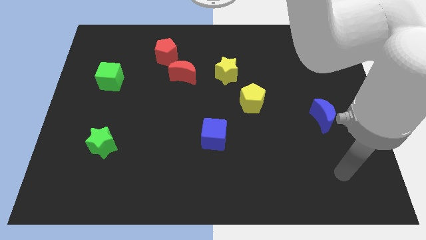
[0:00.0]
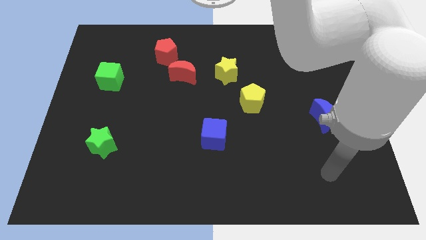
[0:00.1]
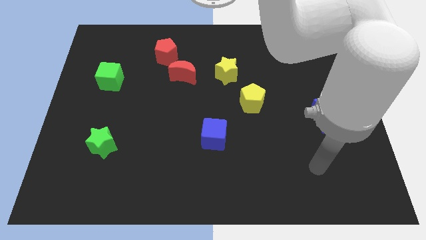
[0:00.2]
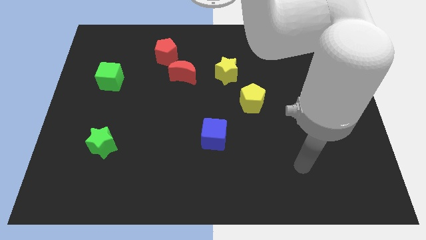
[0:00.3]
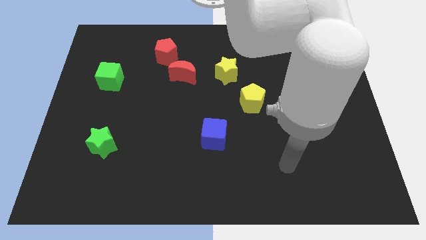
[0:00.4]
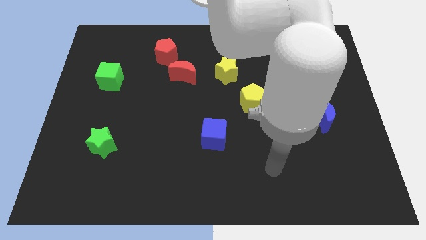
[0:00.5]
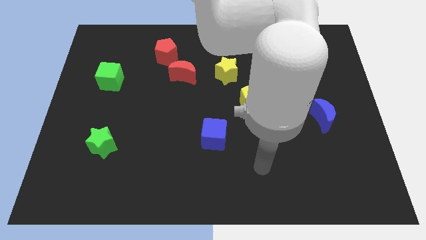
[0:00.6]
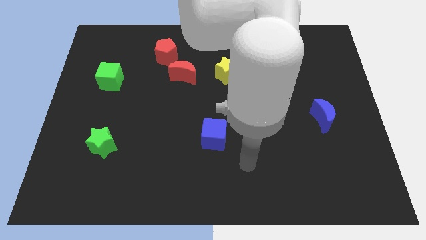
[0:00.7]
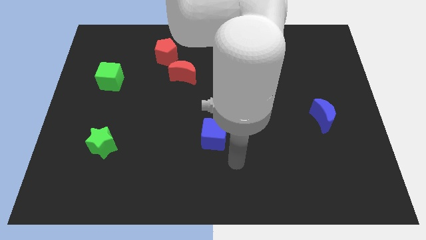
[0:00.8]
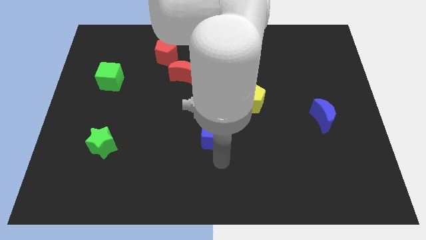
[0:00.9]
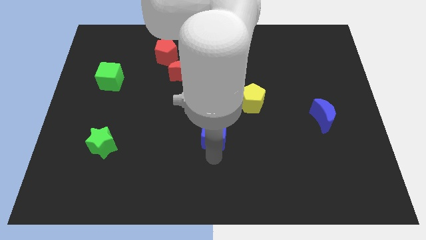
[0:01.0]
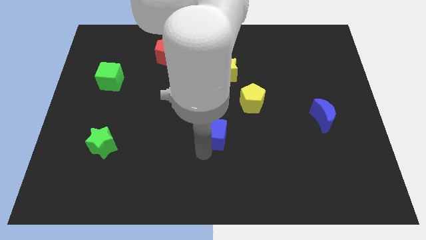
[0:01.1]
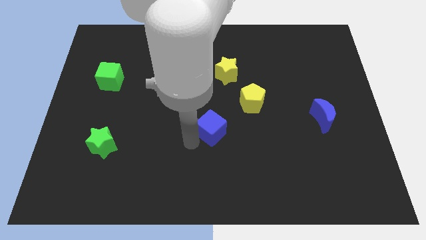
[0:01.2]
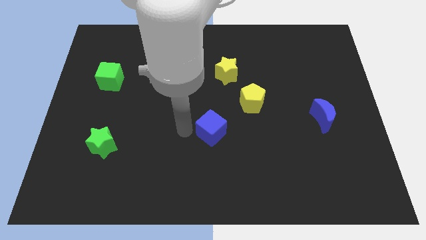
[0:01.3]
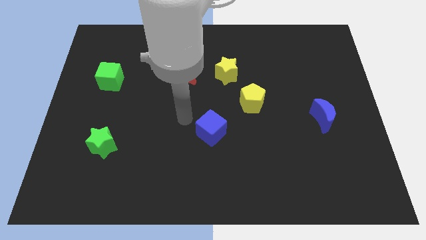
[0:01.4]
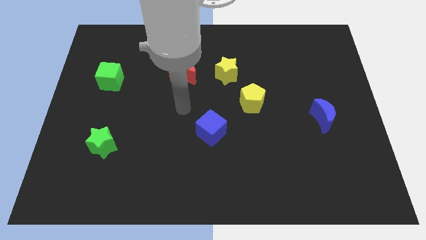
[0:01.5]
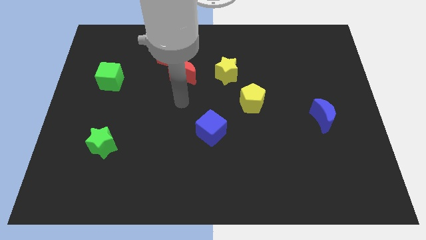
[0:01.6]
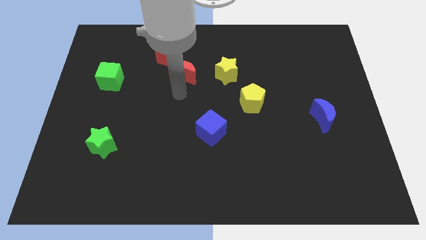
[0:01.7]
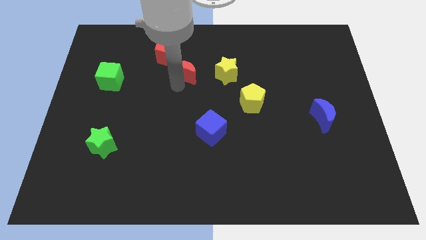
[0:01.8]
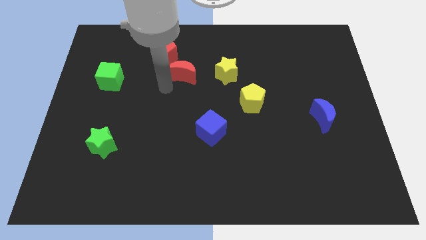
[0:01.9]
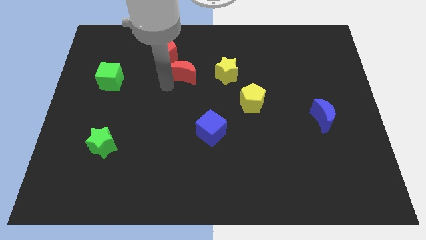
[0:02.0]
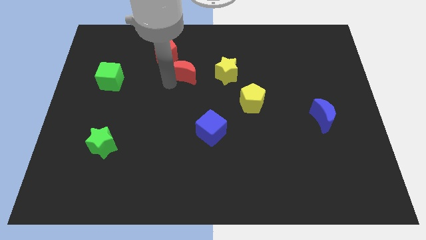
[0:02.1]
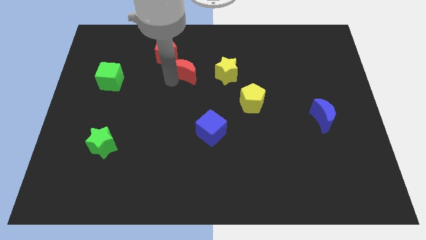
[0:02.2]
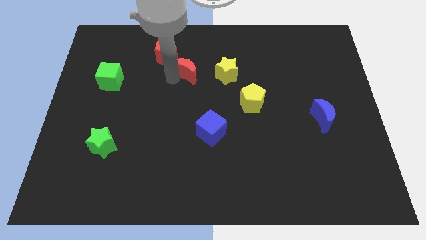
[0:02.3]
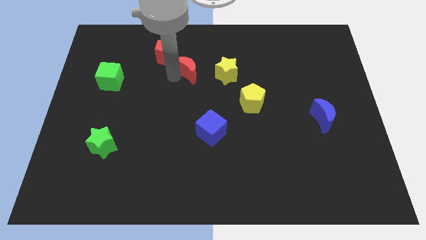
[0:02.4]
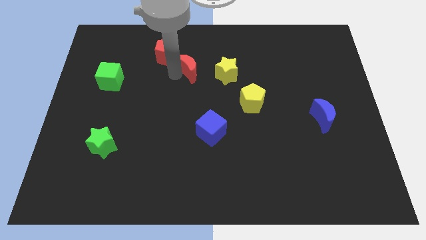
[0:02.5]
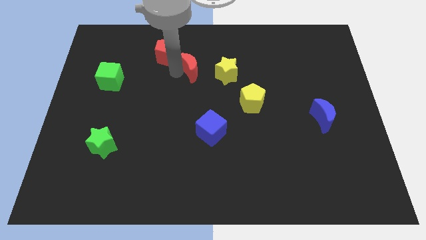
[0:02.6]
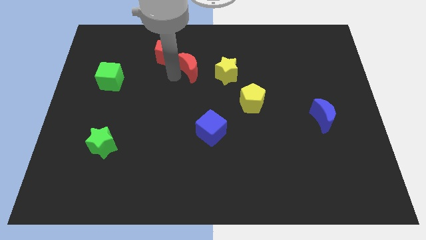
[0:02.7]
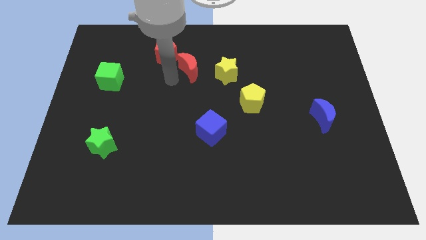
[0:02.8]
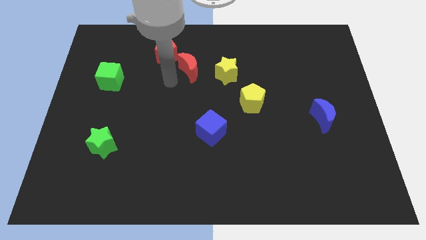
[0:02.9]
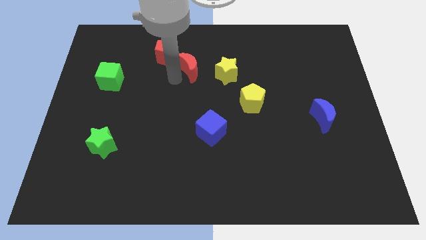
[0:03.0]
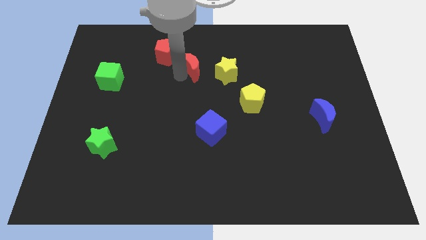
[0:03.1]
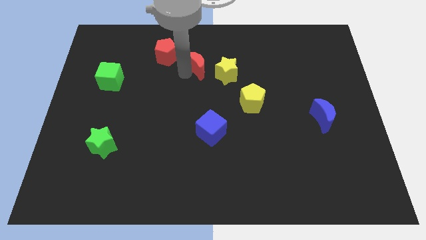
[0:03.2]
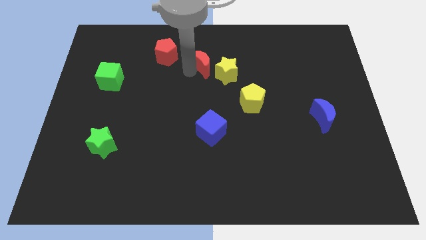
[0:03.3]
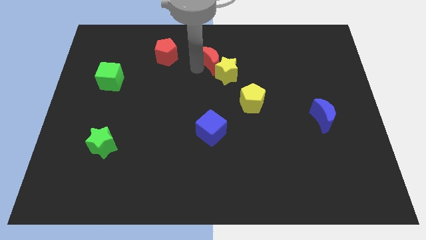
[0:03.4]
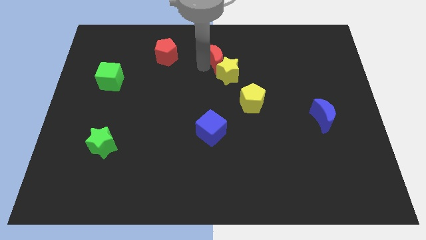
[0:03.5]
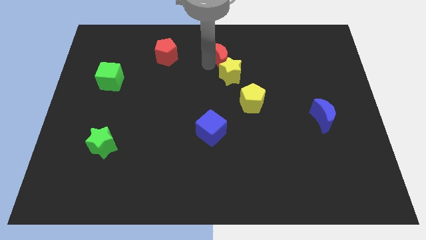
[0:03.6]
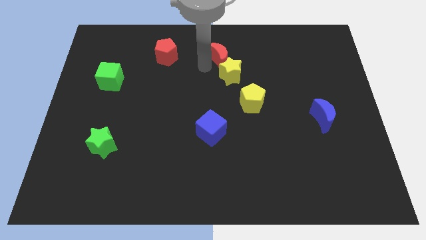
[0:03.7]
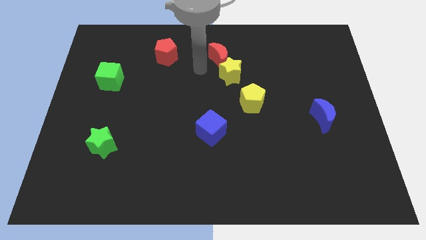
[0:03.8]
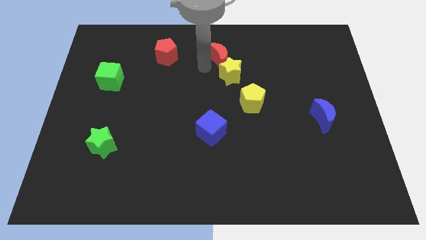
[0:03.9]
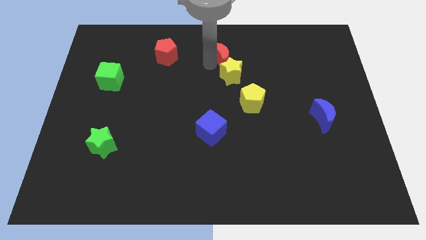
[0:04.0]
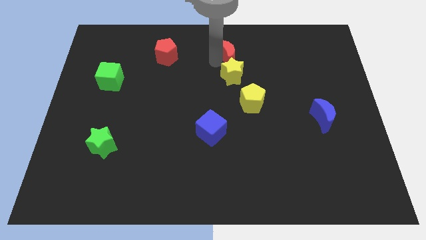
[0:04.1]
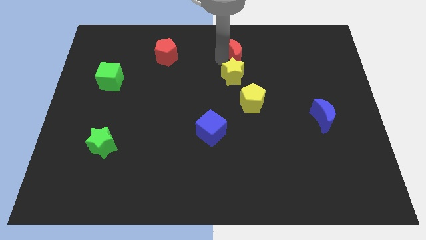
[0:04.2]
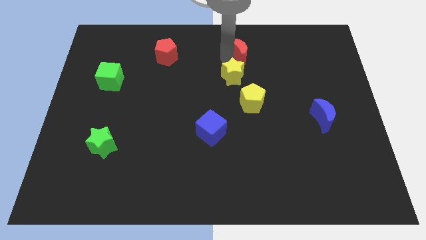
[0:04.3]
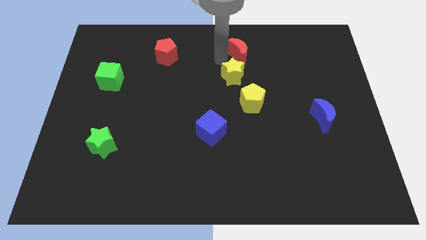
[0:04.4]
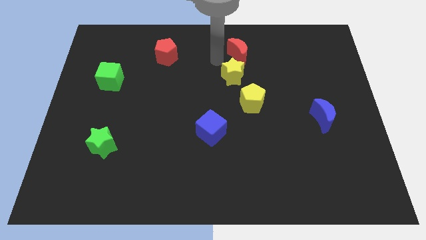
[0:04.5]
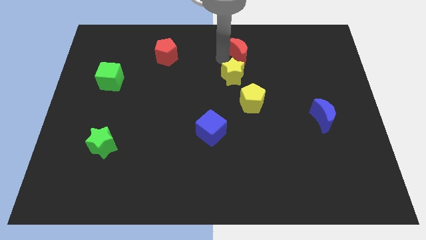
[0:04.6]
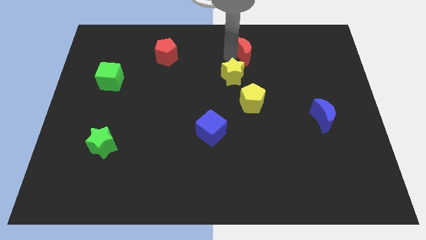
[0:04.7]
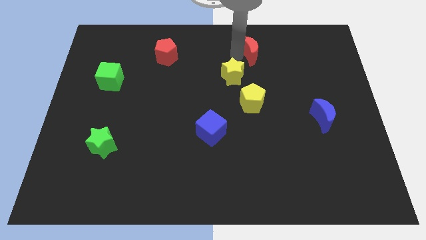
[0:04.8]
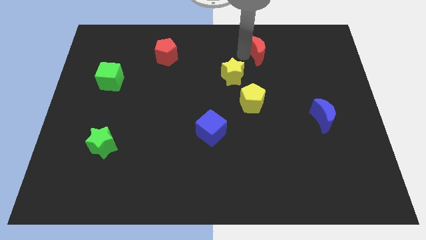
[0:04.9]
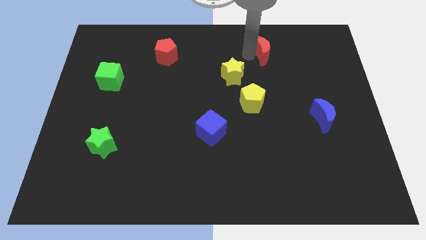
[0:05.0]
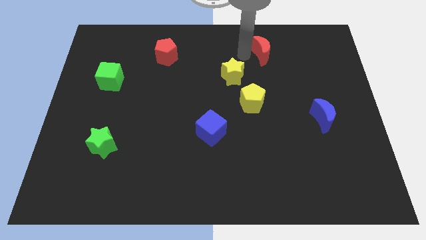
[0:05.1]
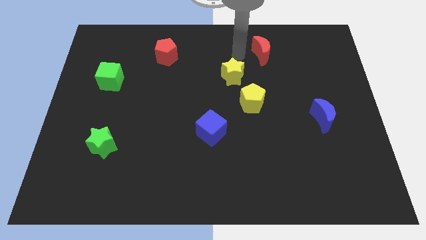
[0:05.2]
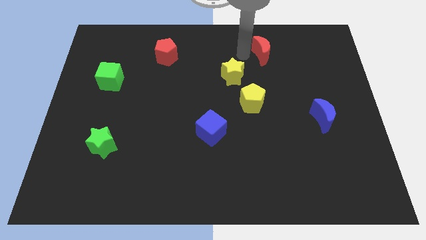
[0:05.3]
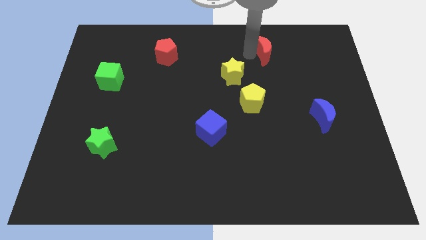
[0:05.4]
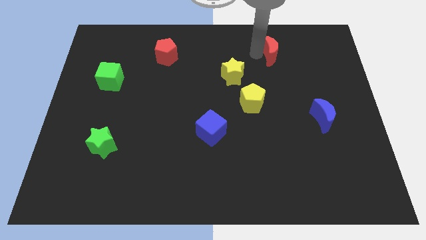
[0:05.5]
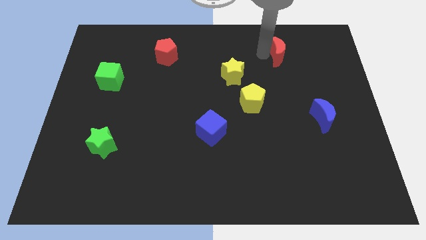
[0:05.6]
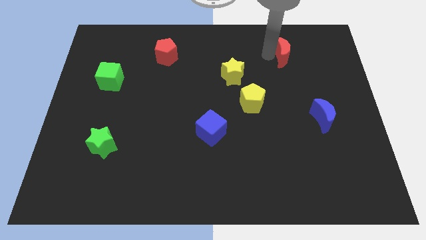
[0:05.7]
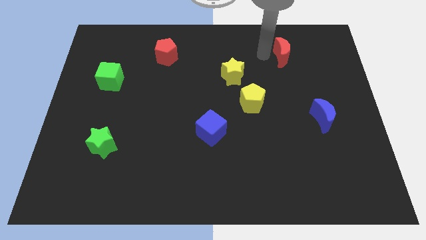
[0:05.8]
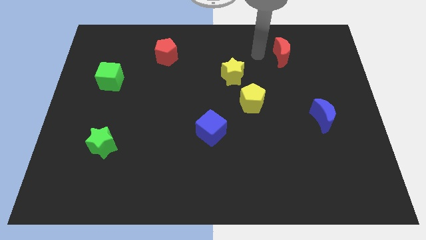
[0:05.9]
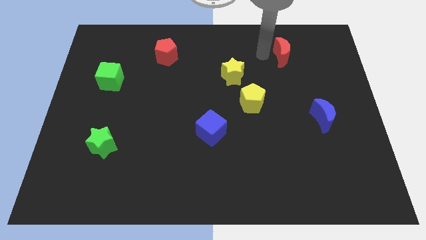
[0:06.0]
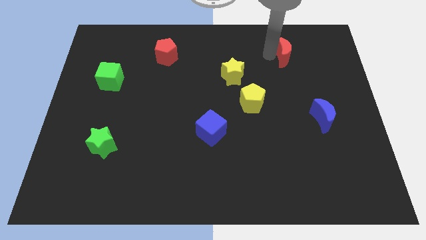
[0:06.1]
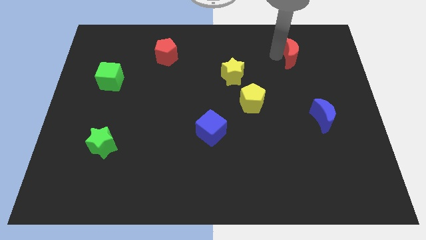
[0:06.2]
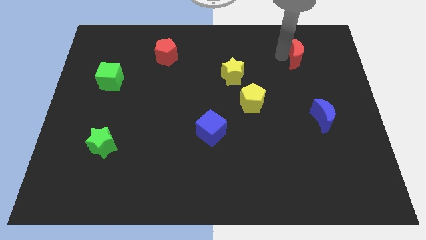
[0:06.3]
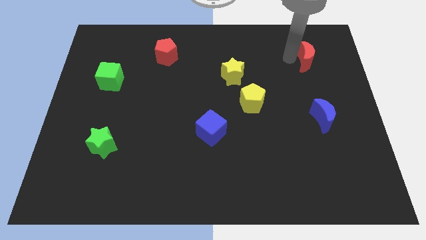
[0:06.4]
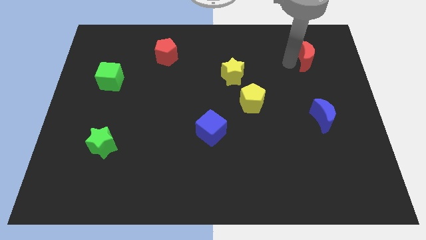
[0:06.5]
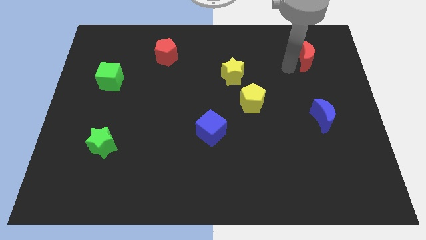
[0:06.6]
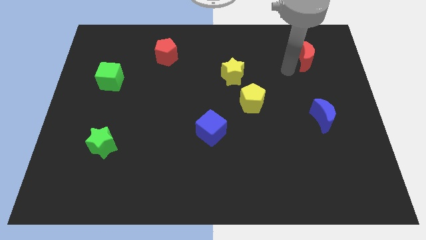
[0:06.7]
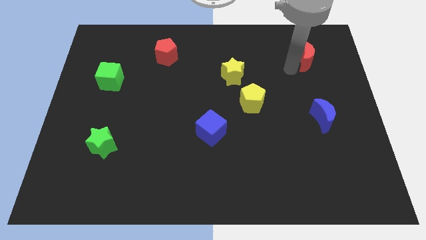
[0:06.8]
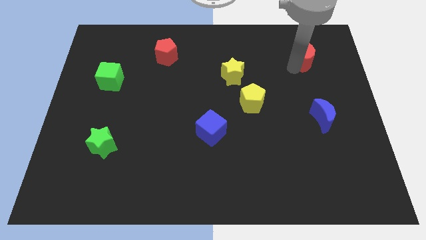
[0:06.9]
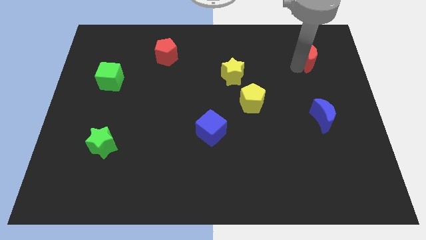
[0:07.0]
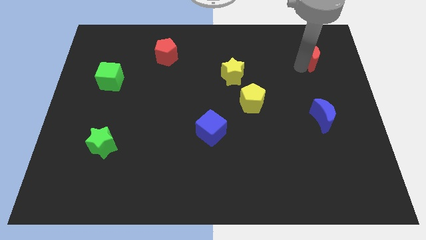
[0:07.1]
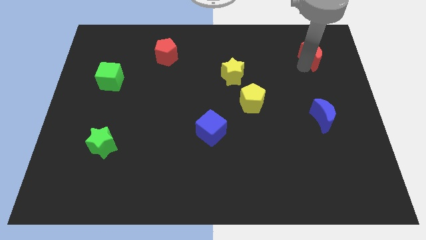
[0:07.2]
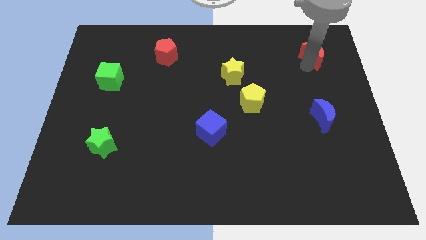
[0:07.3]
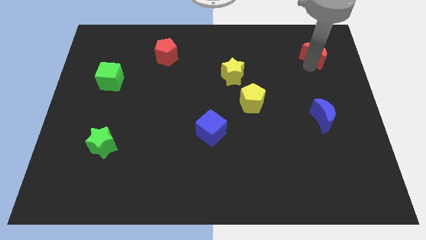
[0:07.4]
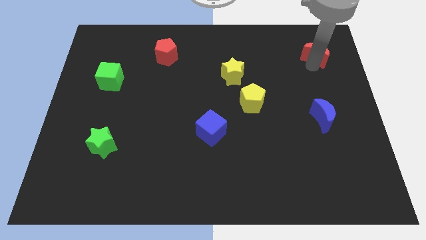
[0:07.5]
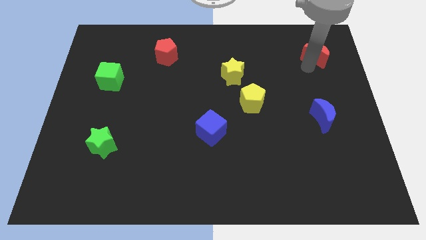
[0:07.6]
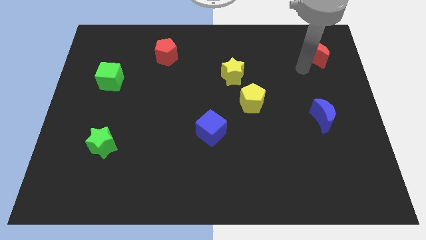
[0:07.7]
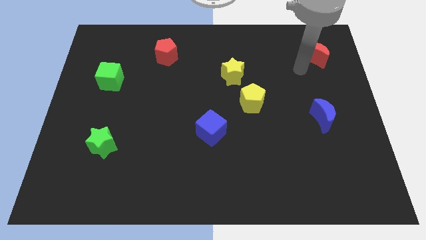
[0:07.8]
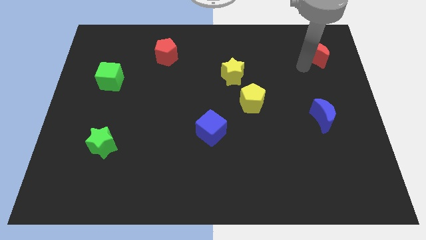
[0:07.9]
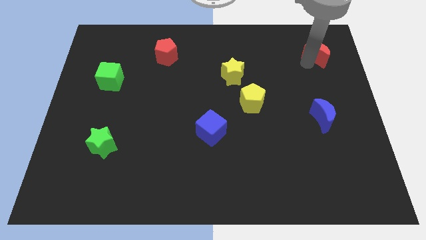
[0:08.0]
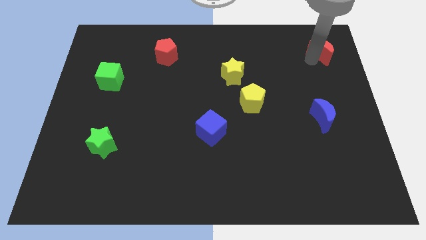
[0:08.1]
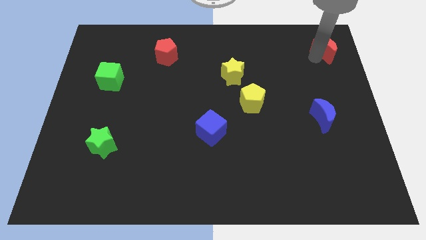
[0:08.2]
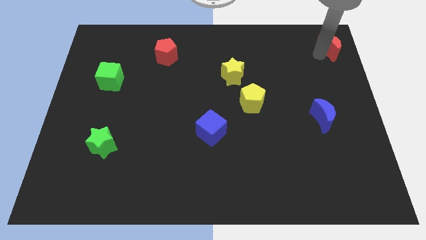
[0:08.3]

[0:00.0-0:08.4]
push the red moon to the upper right corner
